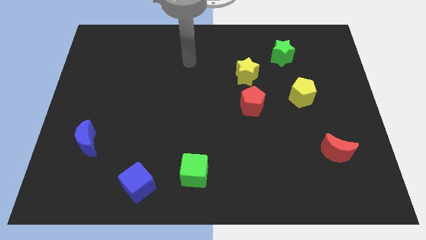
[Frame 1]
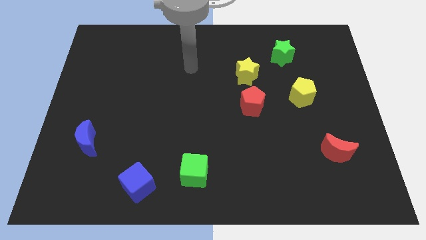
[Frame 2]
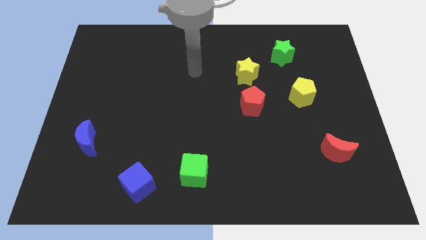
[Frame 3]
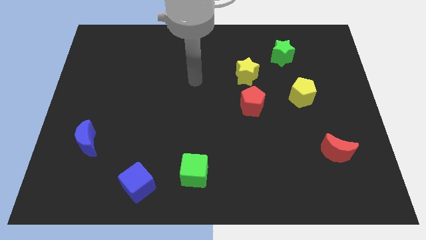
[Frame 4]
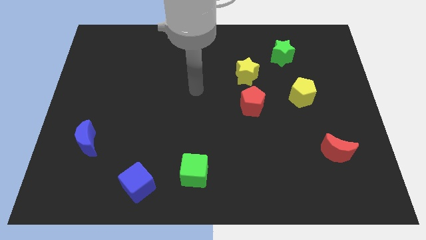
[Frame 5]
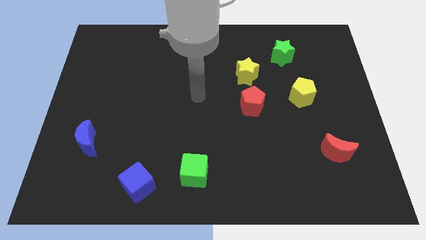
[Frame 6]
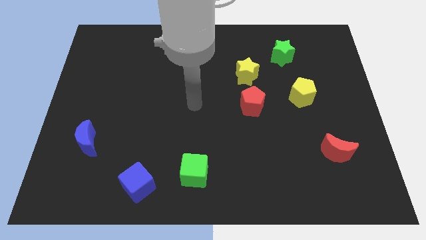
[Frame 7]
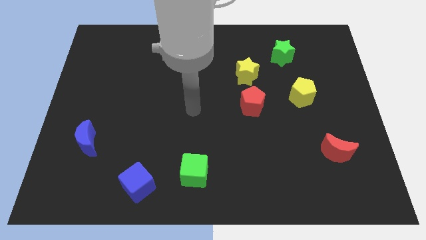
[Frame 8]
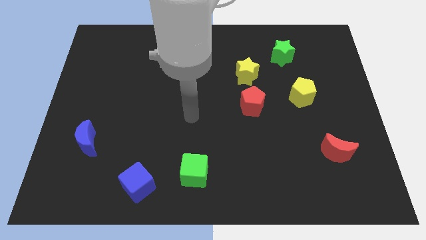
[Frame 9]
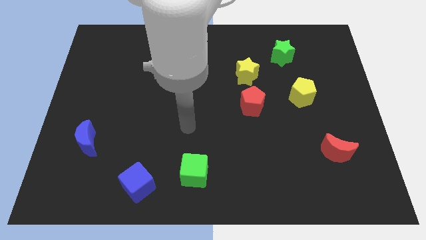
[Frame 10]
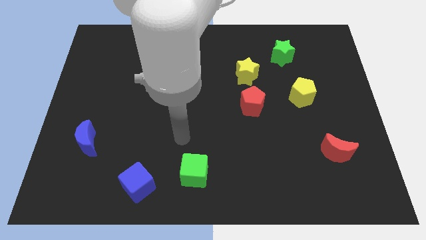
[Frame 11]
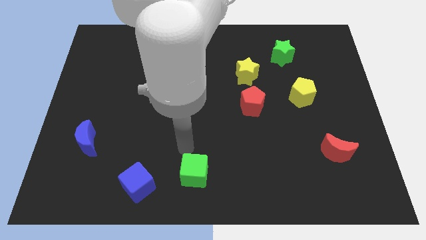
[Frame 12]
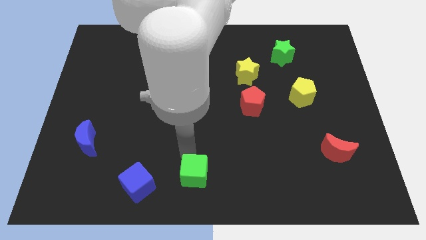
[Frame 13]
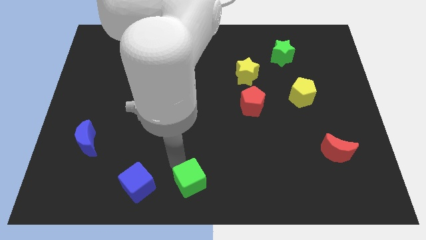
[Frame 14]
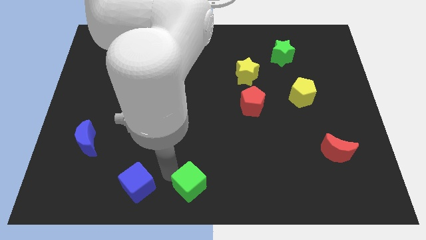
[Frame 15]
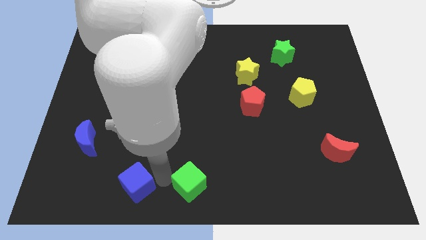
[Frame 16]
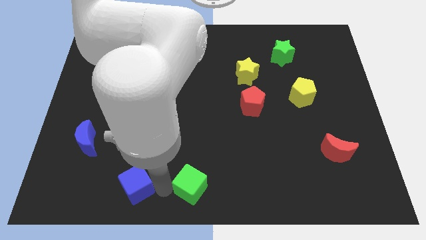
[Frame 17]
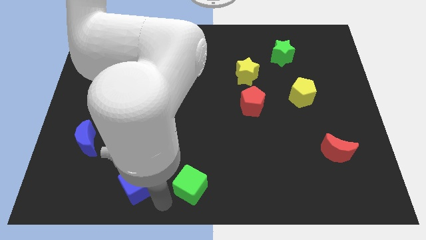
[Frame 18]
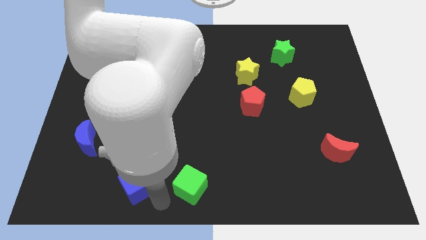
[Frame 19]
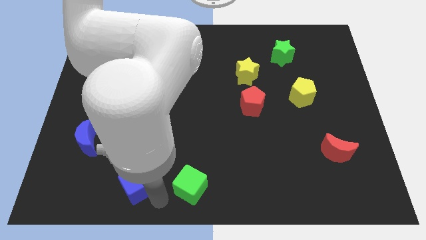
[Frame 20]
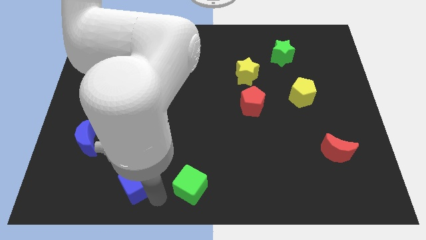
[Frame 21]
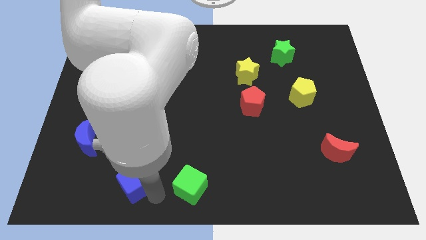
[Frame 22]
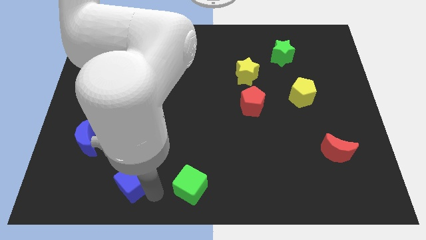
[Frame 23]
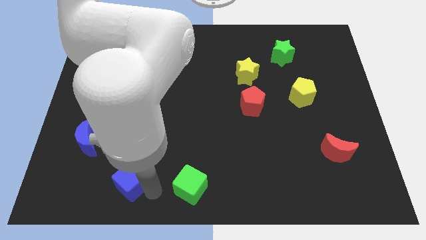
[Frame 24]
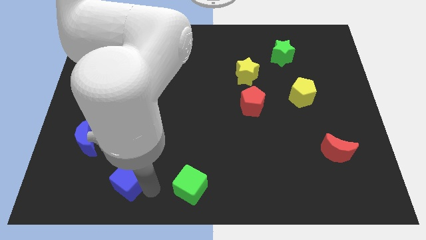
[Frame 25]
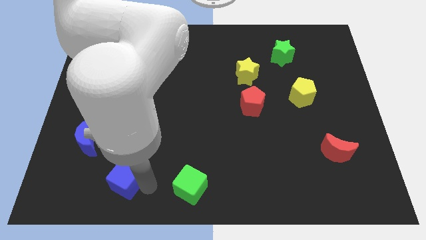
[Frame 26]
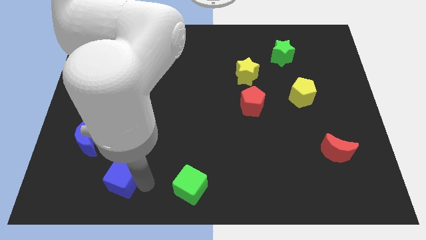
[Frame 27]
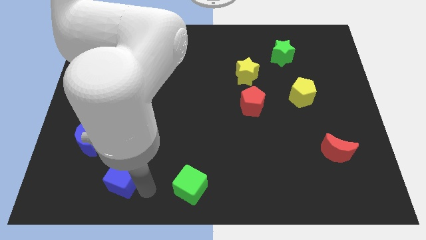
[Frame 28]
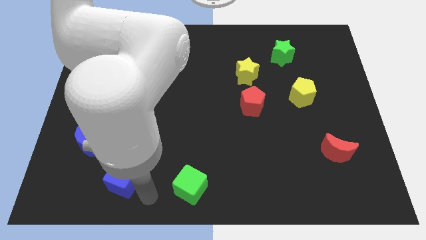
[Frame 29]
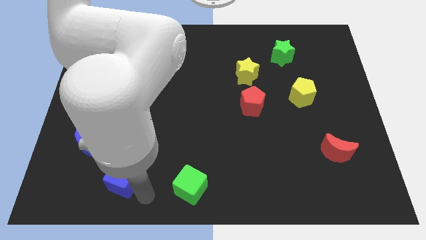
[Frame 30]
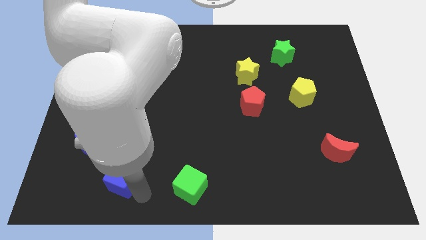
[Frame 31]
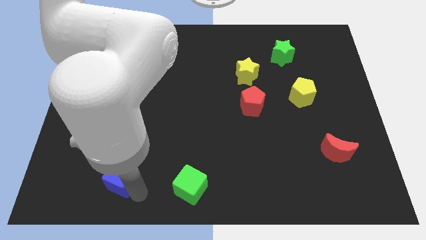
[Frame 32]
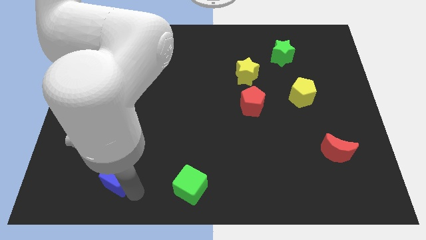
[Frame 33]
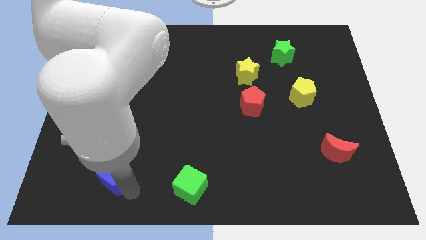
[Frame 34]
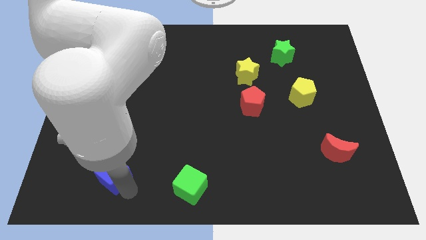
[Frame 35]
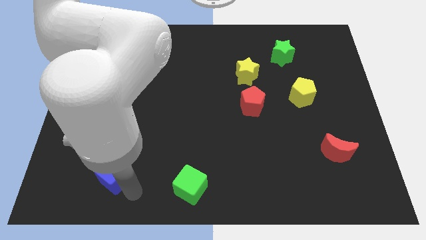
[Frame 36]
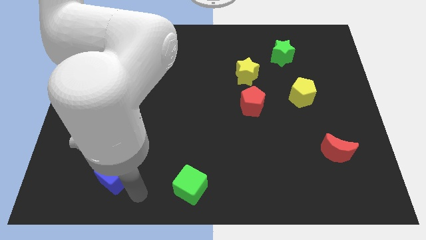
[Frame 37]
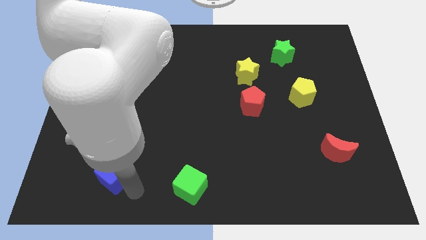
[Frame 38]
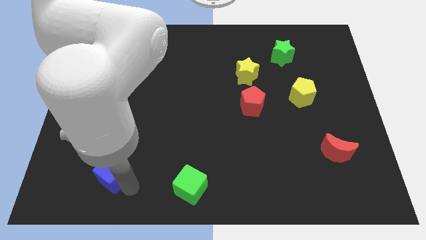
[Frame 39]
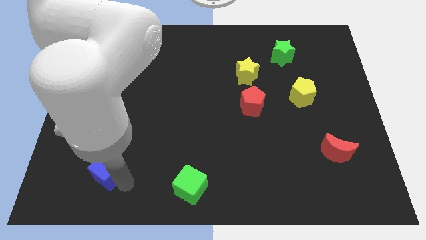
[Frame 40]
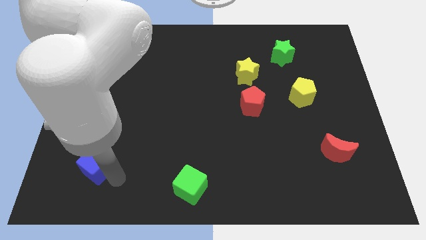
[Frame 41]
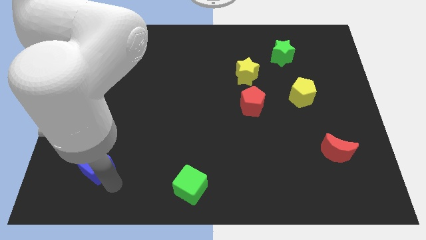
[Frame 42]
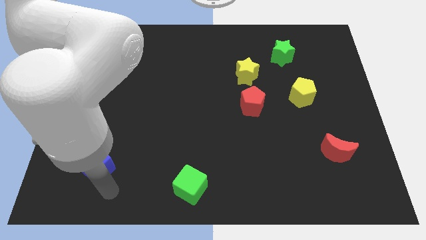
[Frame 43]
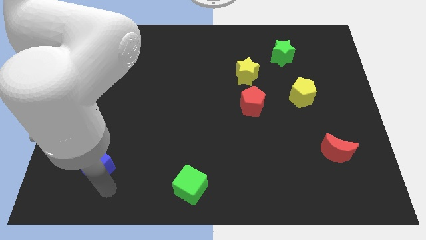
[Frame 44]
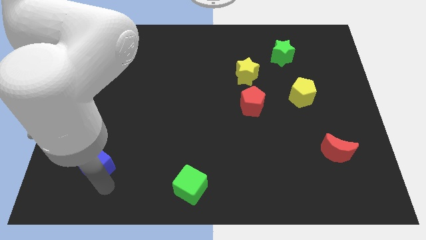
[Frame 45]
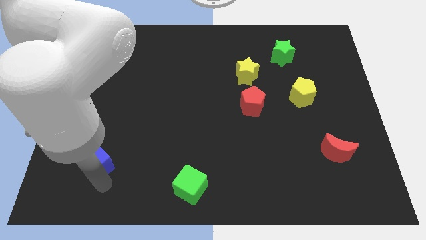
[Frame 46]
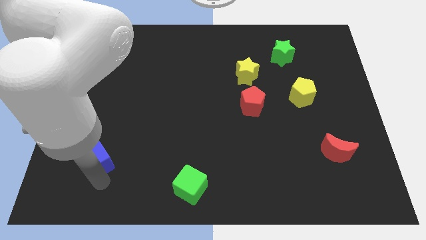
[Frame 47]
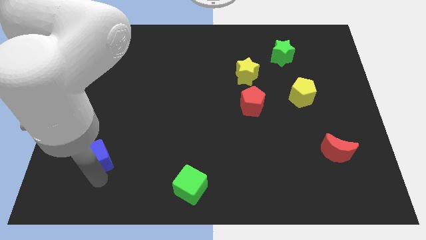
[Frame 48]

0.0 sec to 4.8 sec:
slide the blue cube close to the blue moon

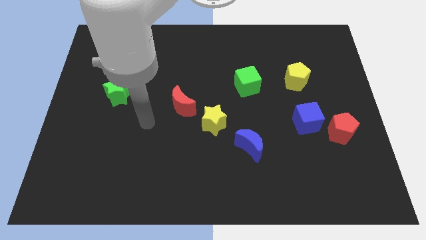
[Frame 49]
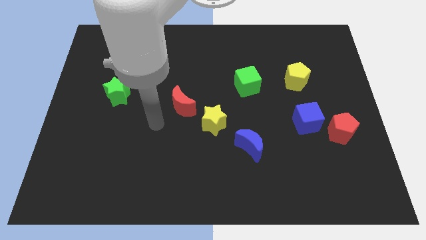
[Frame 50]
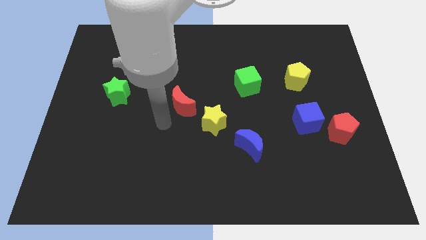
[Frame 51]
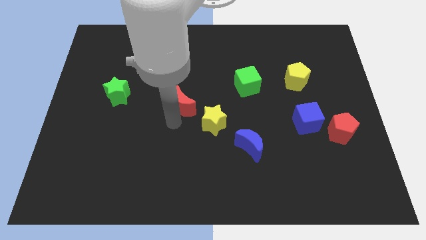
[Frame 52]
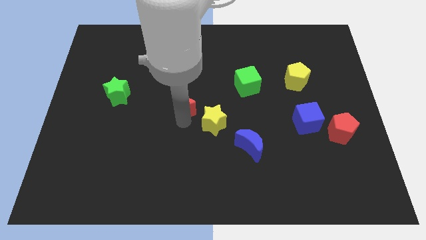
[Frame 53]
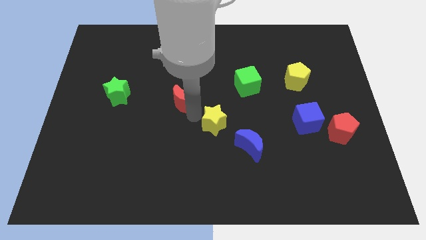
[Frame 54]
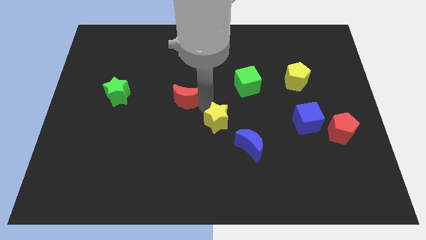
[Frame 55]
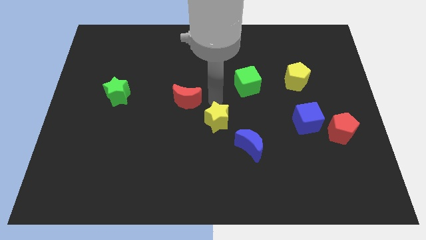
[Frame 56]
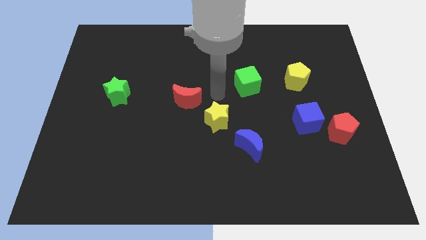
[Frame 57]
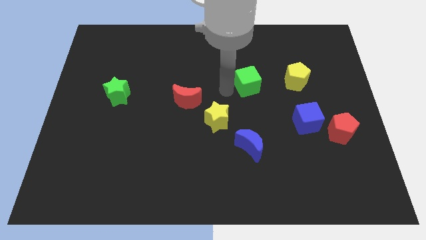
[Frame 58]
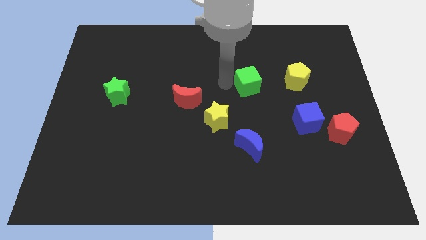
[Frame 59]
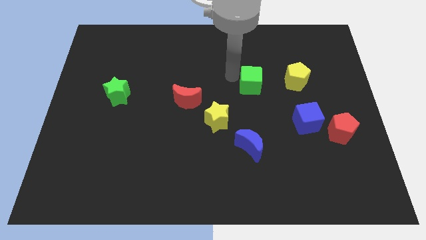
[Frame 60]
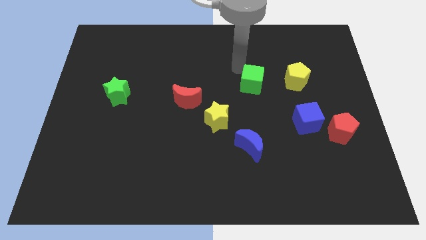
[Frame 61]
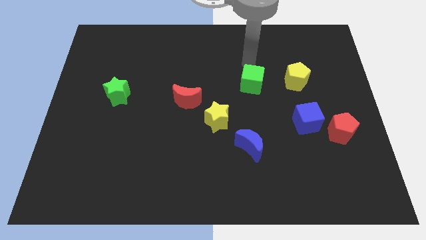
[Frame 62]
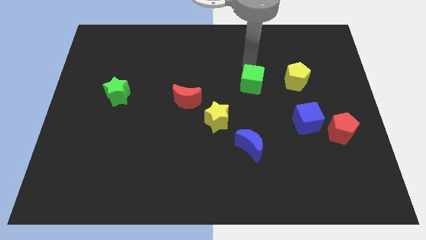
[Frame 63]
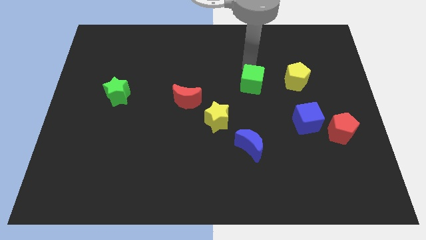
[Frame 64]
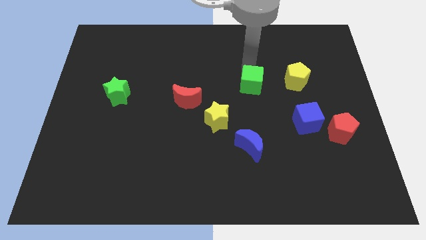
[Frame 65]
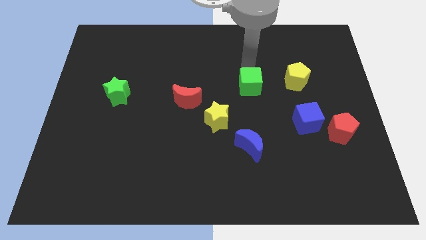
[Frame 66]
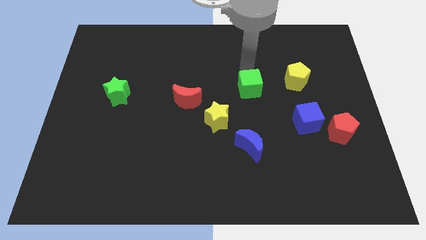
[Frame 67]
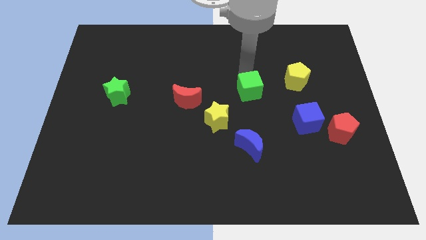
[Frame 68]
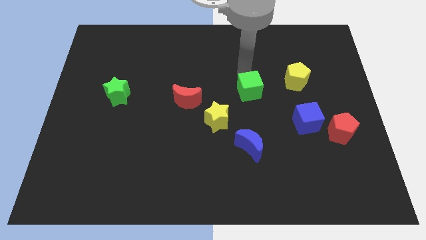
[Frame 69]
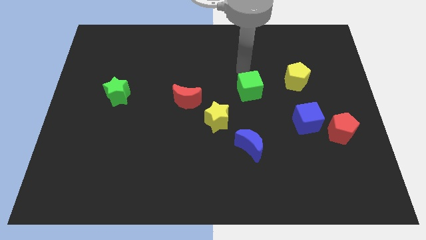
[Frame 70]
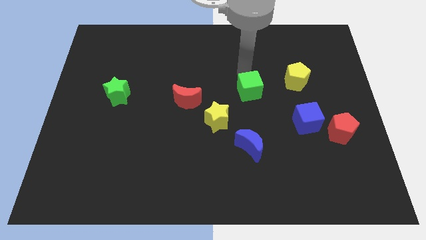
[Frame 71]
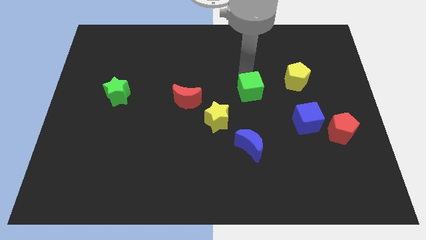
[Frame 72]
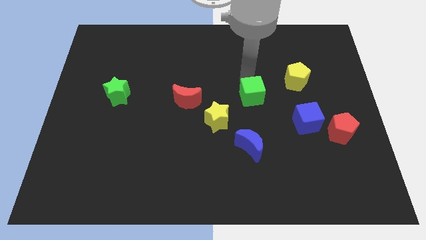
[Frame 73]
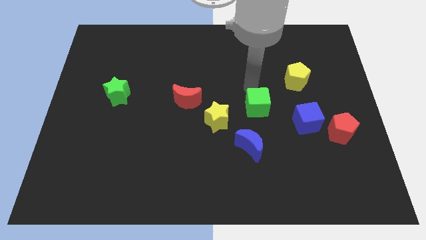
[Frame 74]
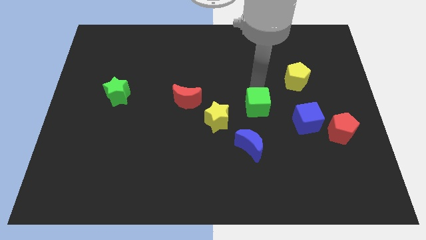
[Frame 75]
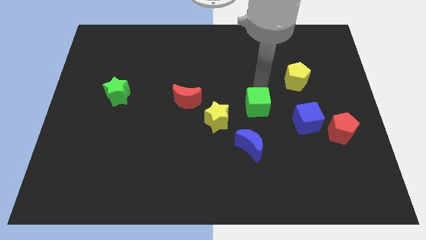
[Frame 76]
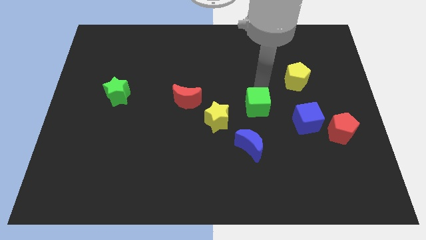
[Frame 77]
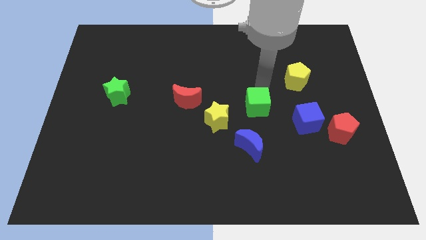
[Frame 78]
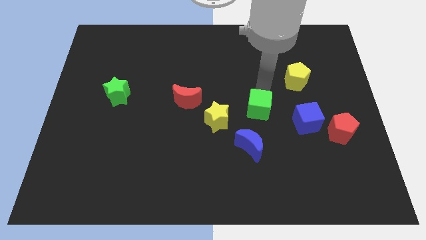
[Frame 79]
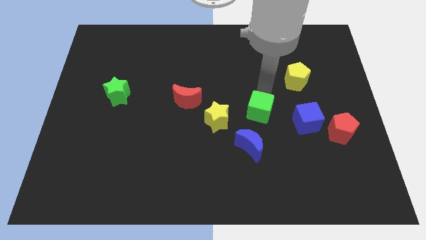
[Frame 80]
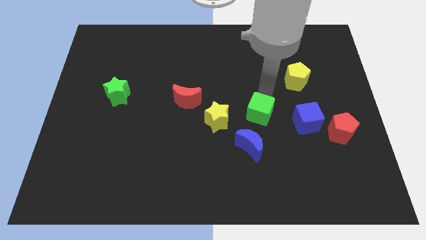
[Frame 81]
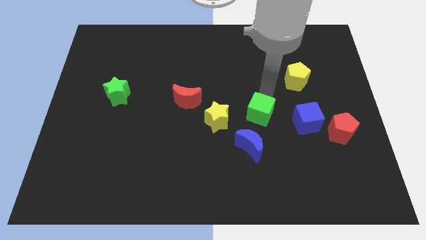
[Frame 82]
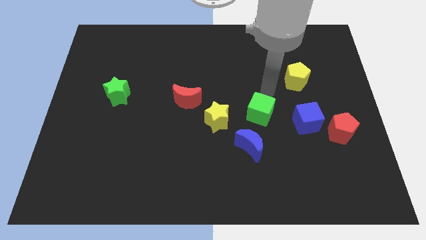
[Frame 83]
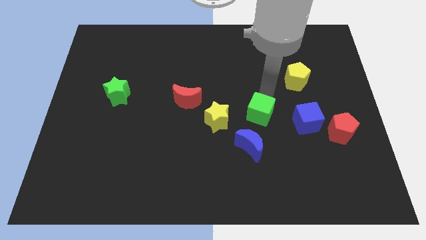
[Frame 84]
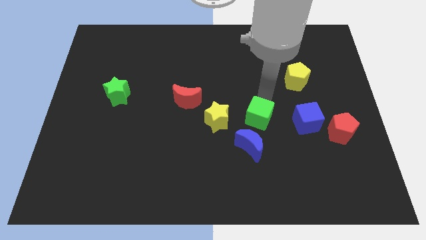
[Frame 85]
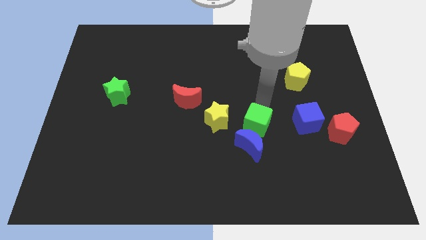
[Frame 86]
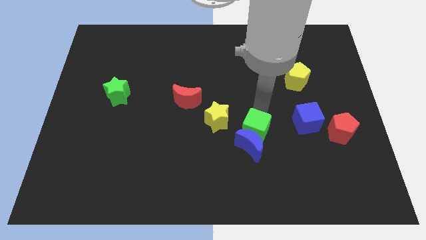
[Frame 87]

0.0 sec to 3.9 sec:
put the green cube close to the blue moon
